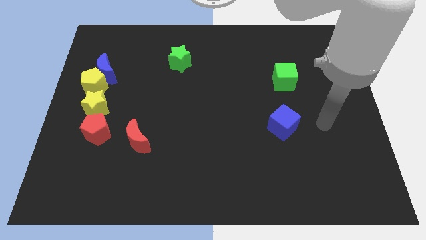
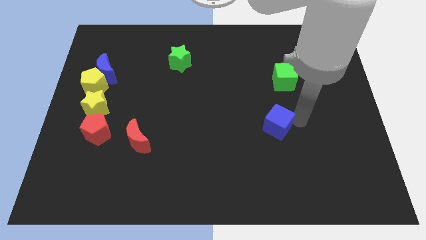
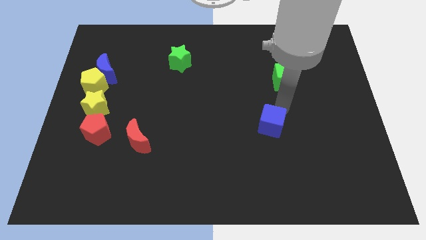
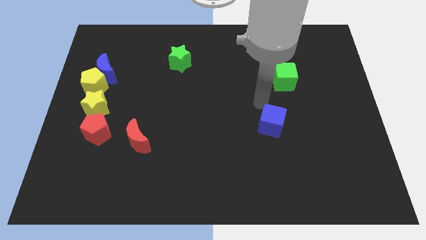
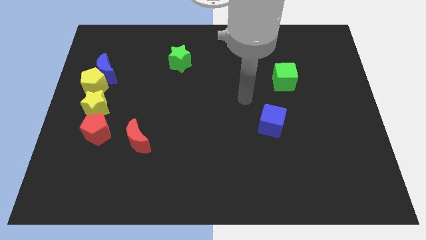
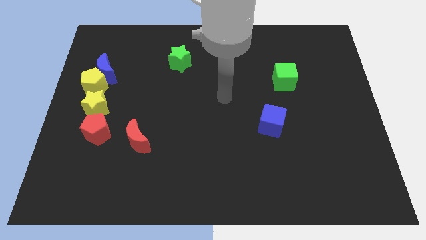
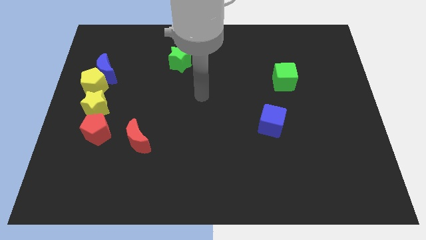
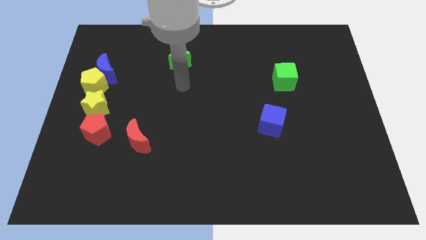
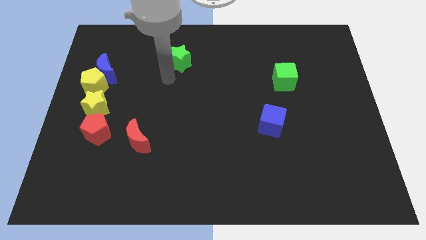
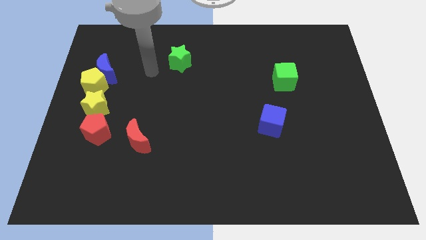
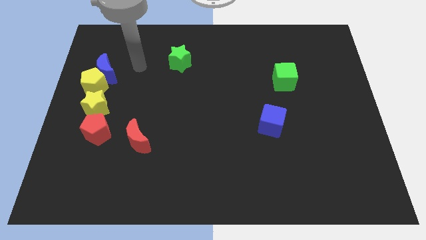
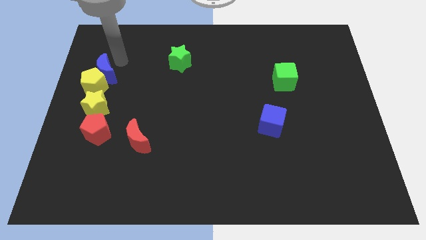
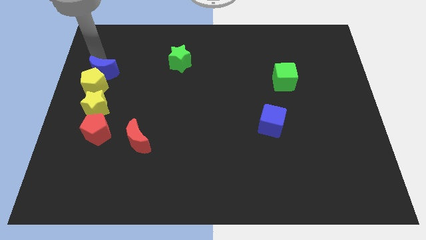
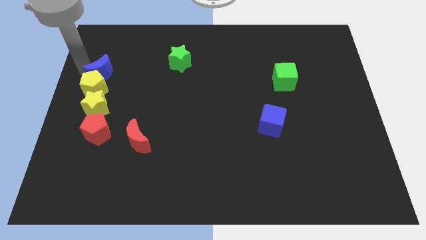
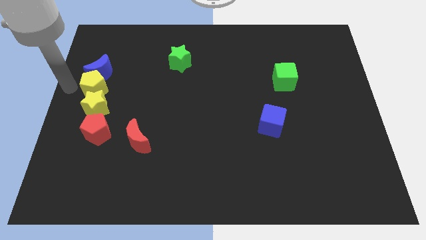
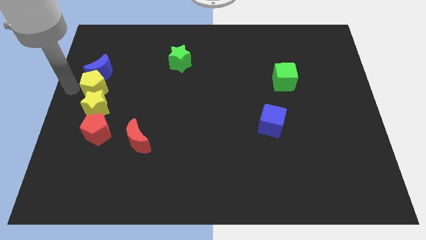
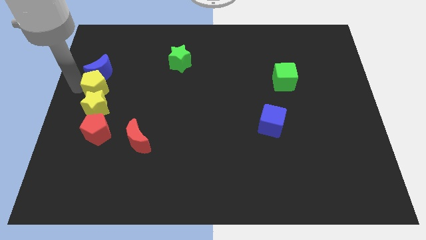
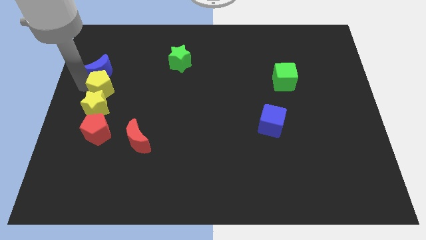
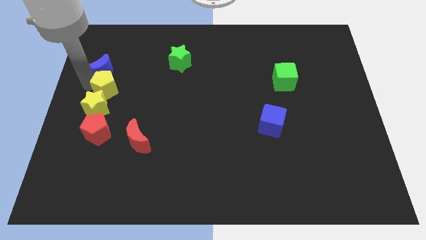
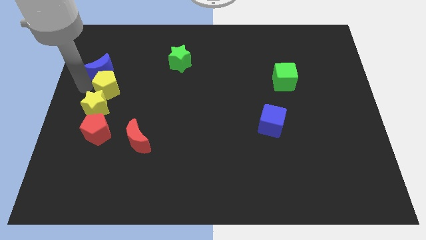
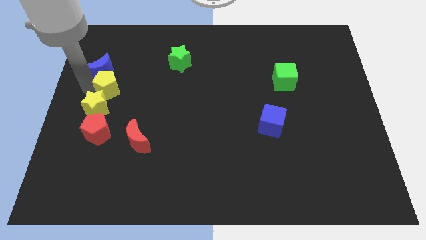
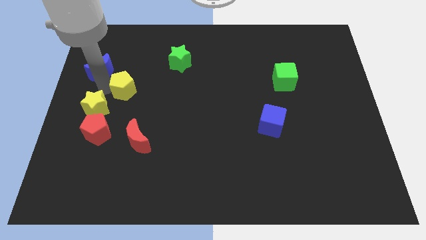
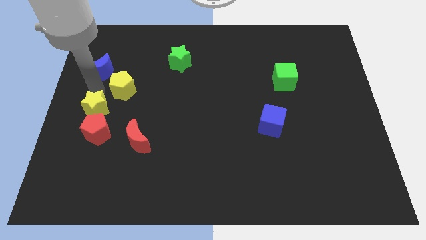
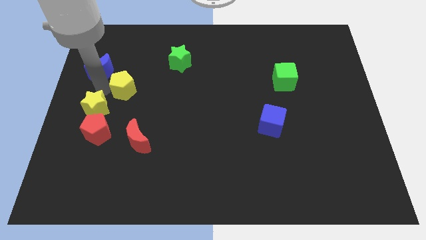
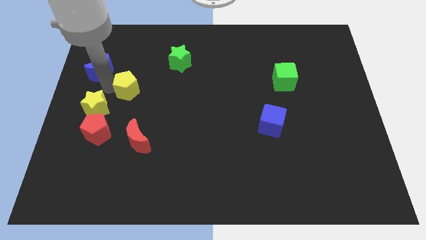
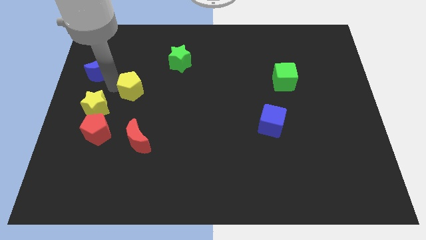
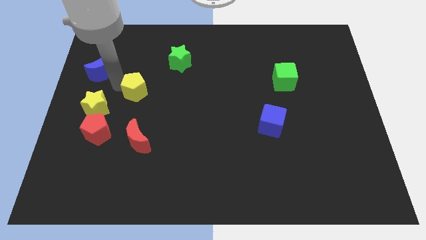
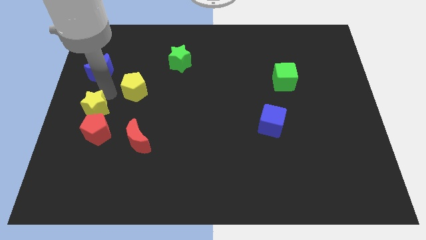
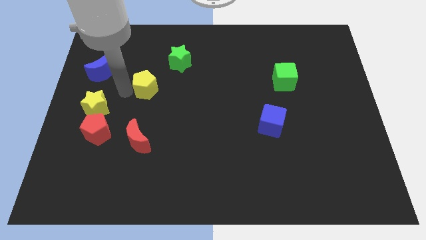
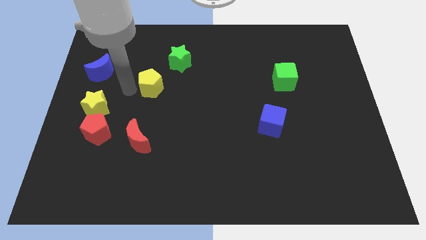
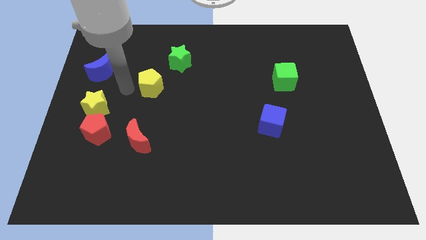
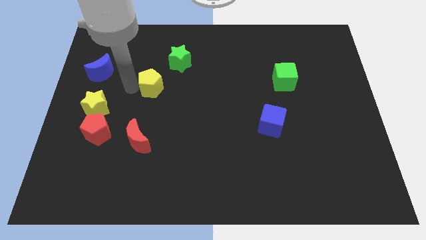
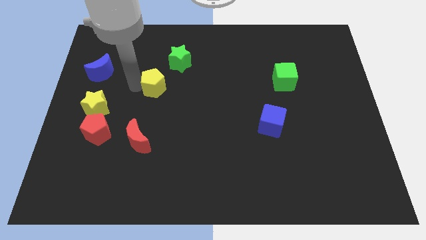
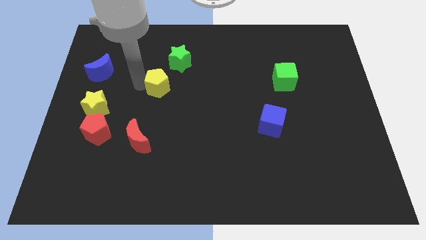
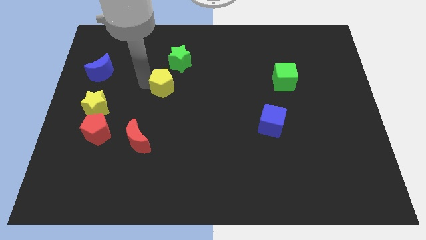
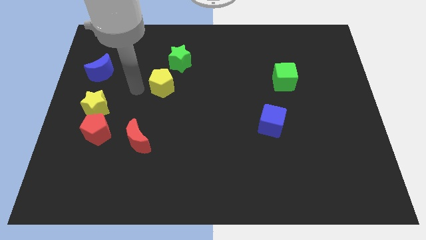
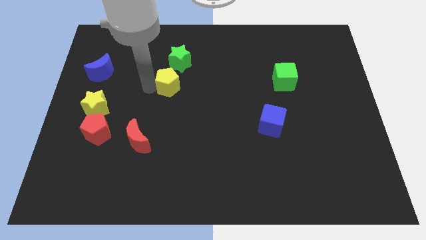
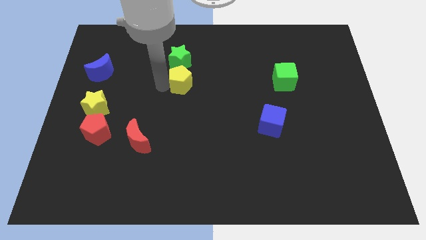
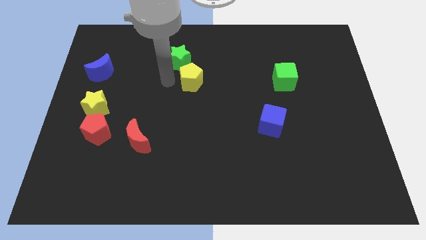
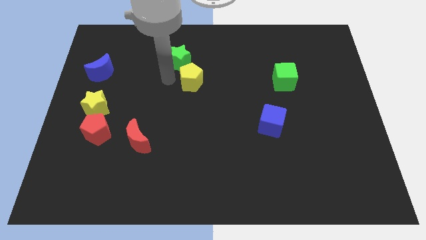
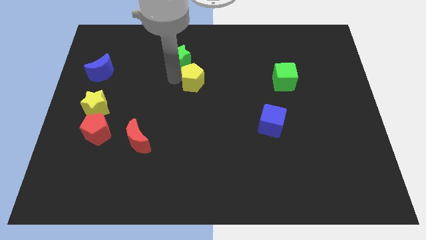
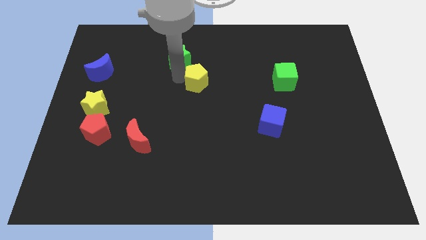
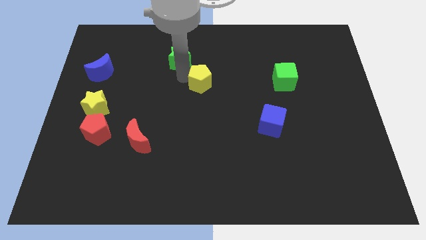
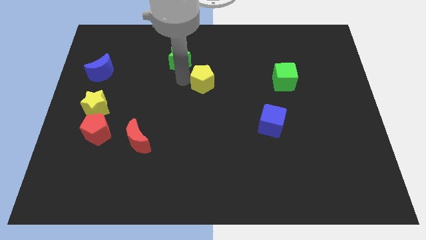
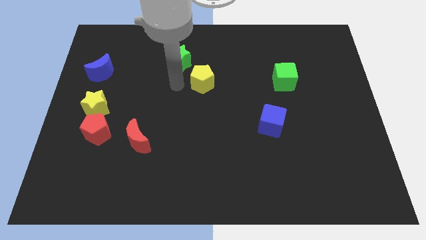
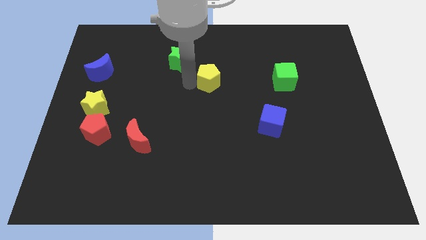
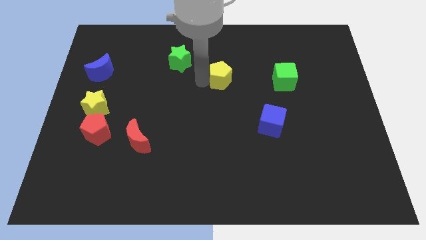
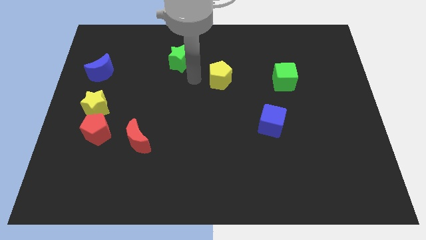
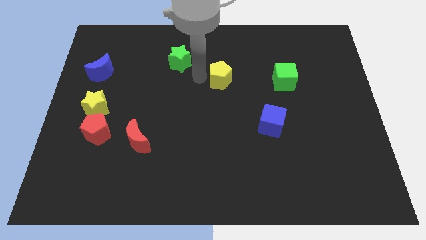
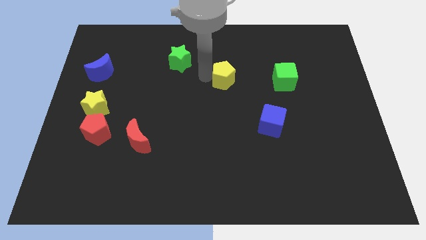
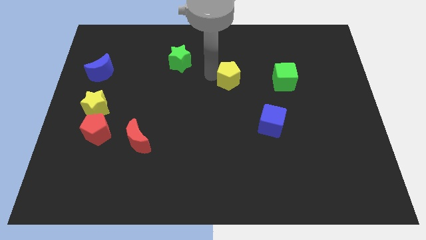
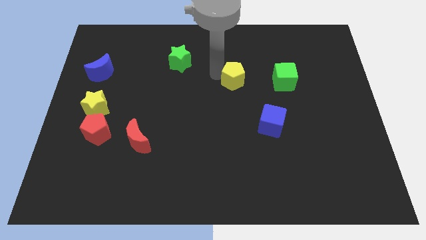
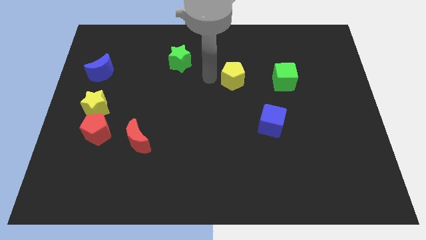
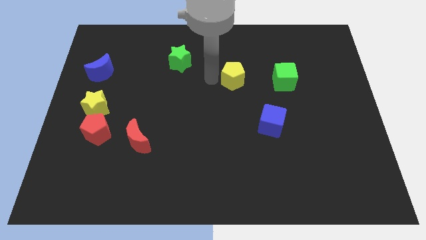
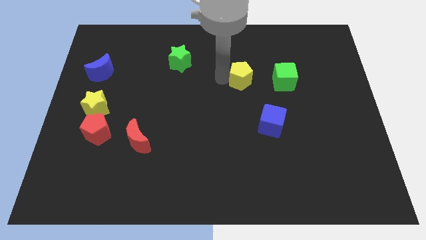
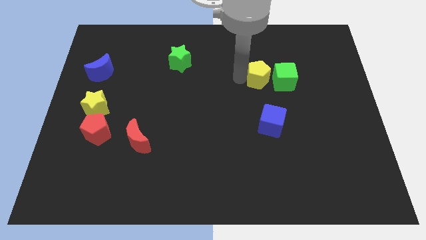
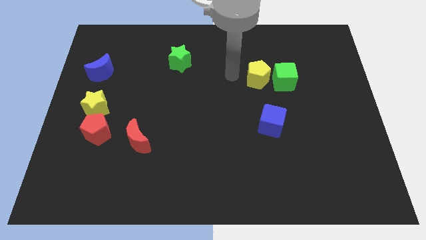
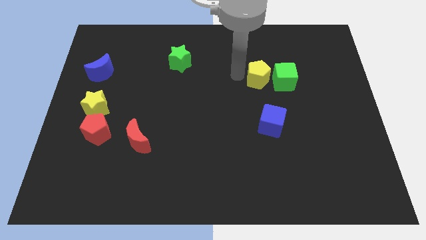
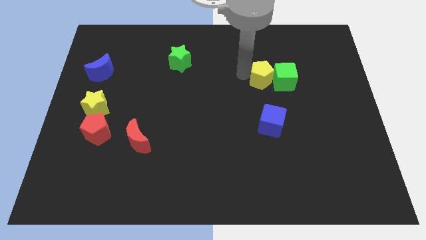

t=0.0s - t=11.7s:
push the yellow pentagon to the green cube

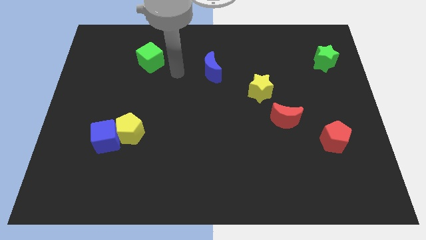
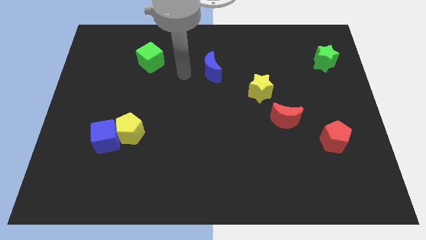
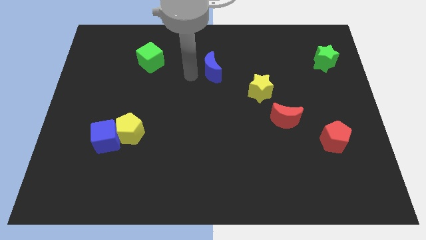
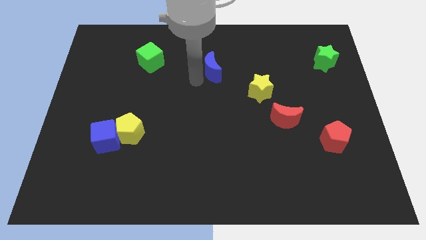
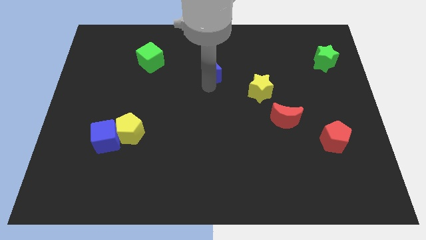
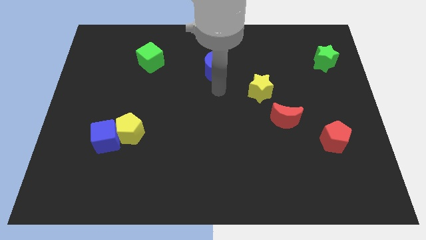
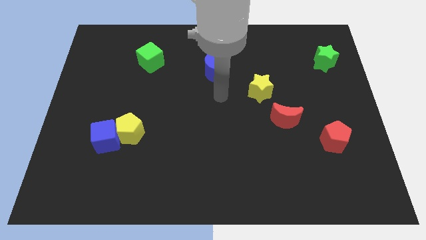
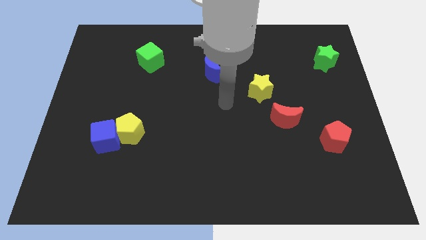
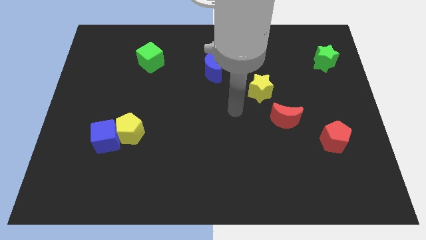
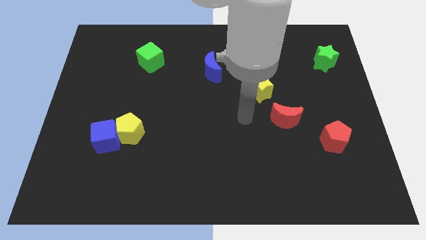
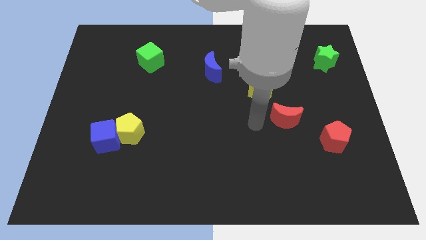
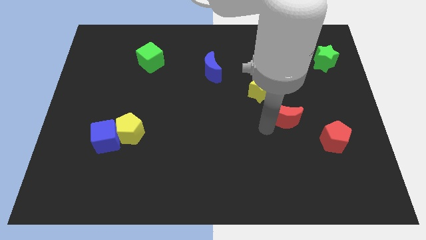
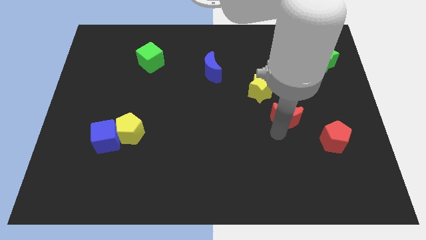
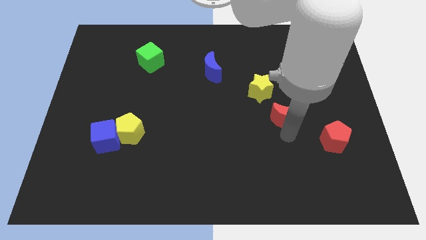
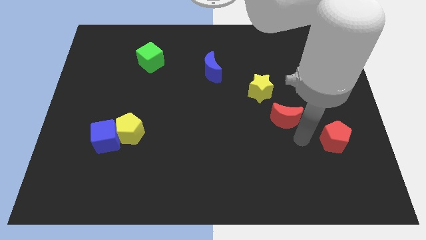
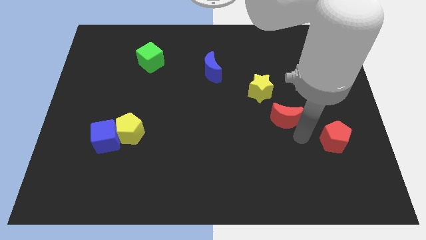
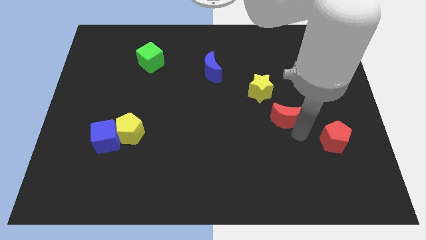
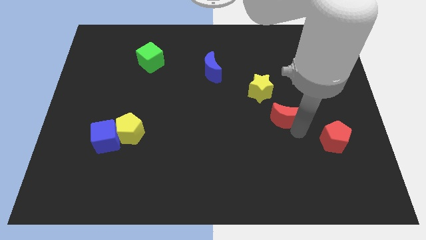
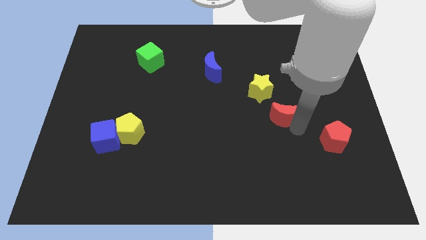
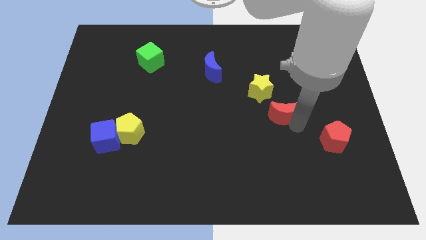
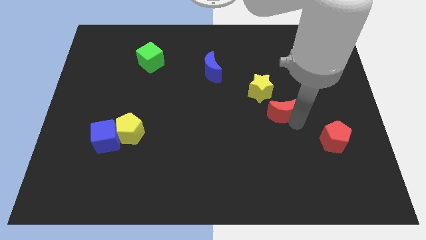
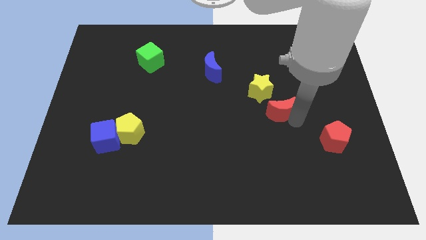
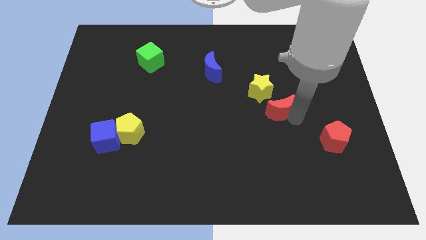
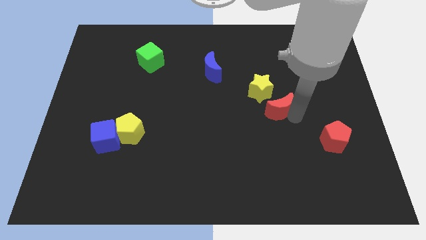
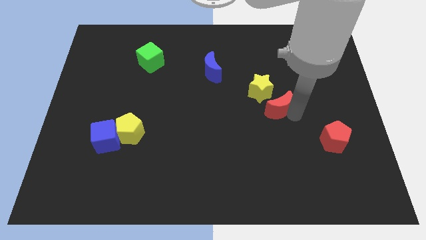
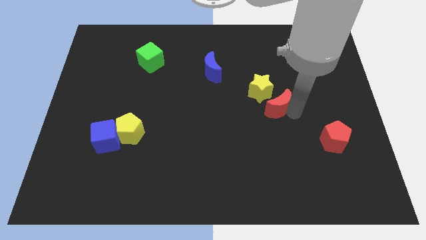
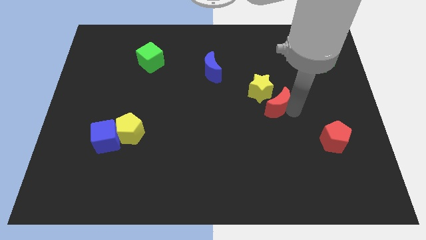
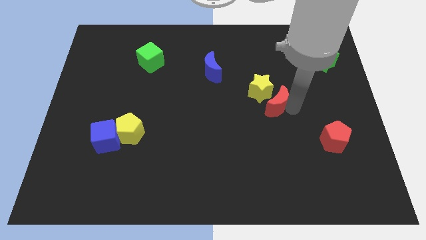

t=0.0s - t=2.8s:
move the red moon to the yellow star
